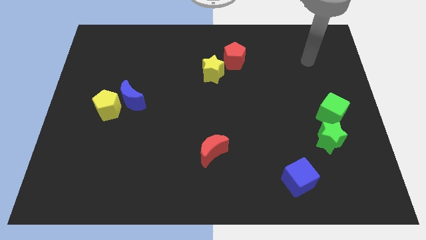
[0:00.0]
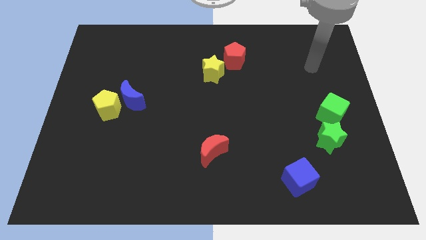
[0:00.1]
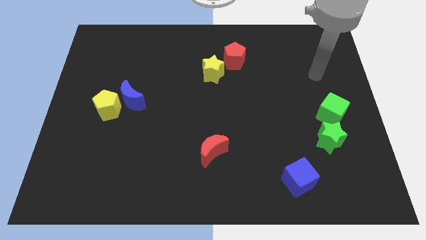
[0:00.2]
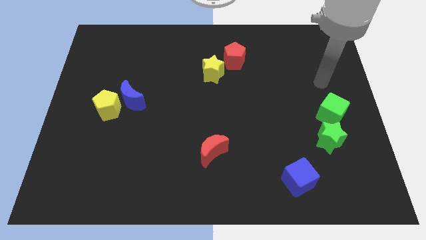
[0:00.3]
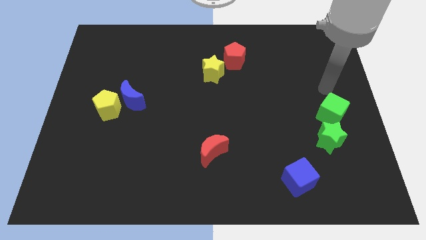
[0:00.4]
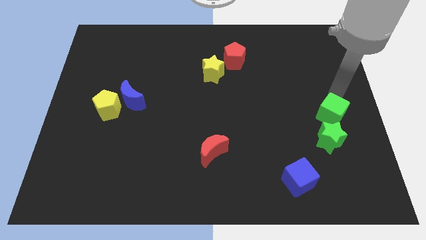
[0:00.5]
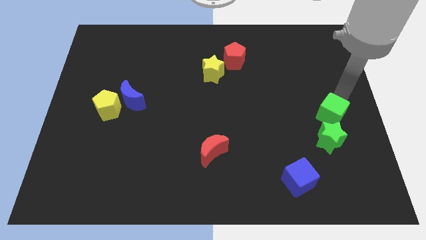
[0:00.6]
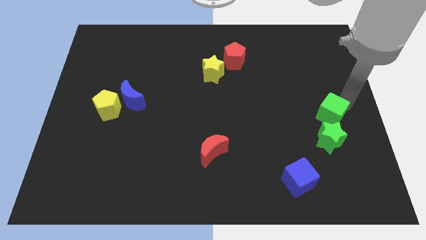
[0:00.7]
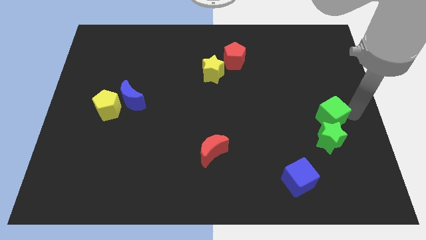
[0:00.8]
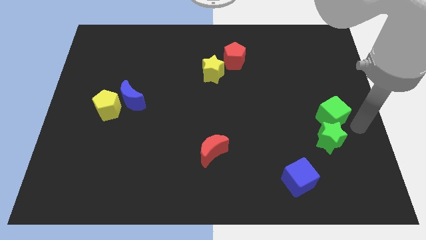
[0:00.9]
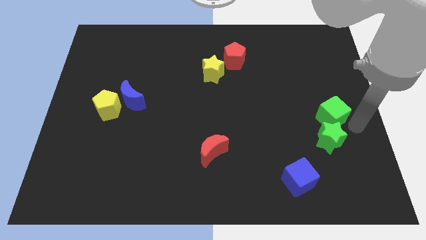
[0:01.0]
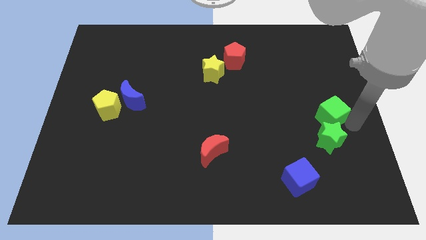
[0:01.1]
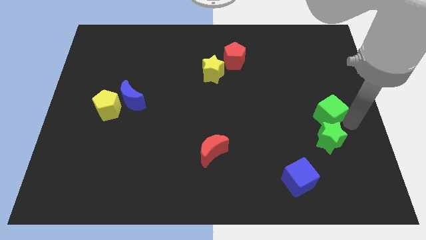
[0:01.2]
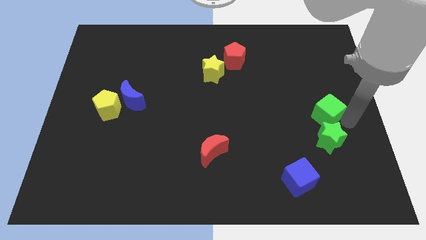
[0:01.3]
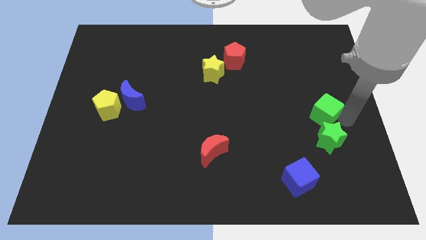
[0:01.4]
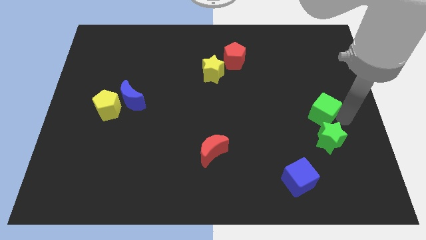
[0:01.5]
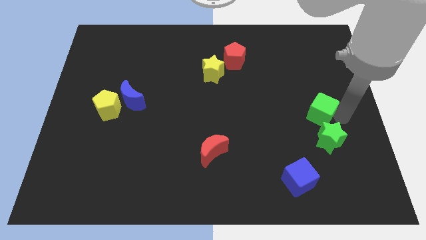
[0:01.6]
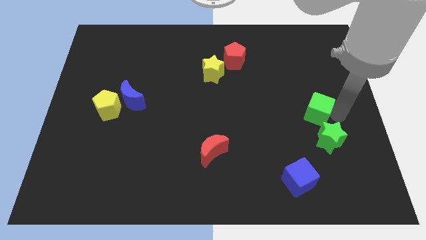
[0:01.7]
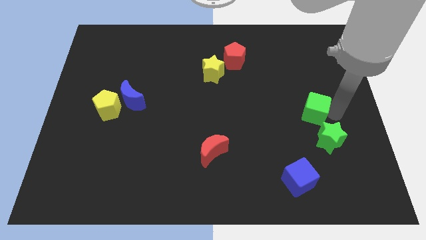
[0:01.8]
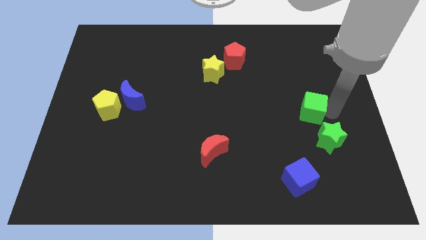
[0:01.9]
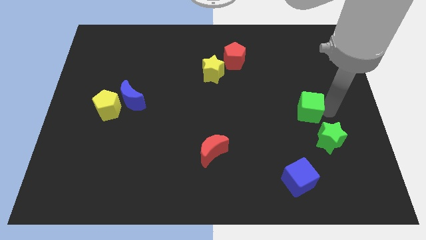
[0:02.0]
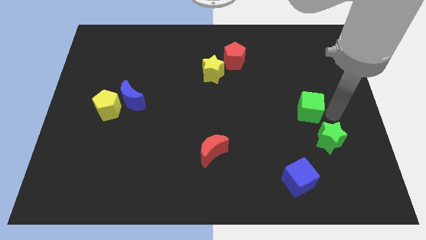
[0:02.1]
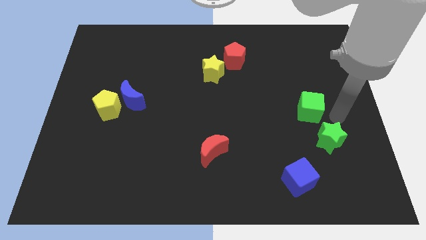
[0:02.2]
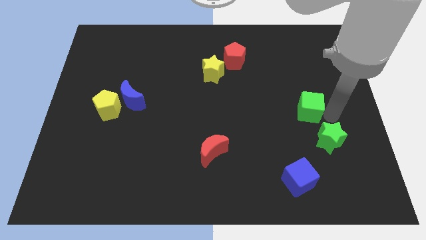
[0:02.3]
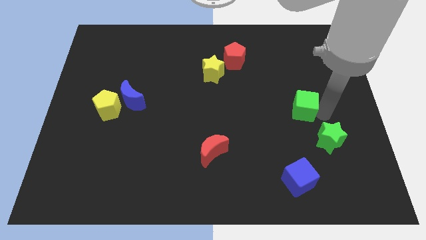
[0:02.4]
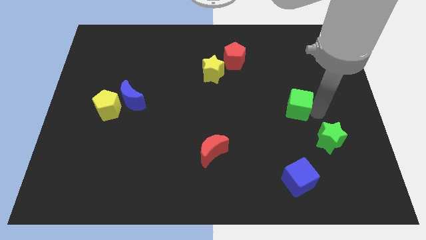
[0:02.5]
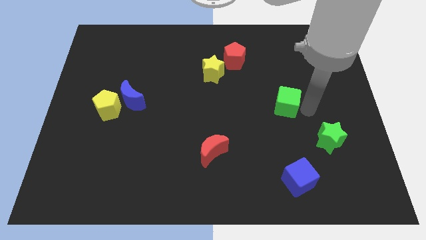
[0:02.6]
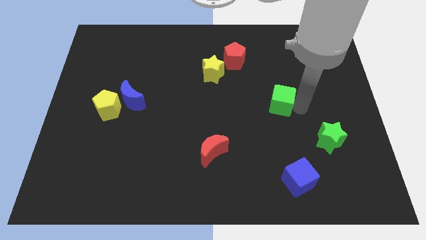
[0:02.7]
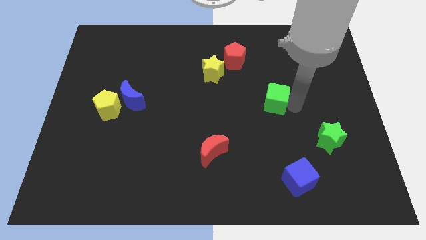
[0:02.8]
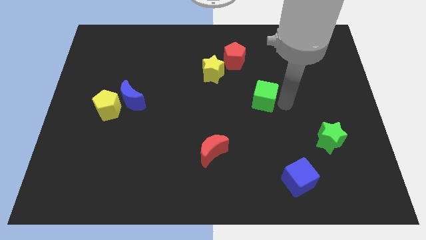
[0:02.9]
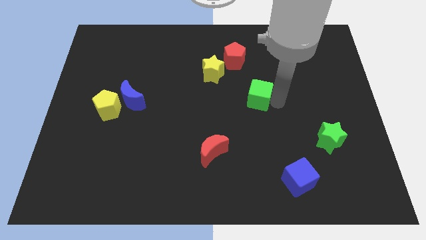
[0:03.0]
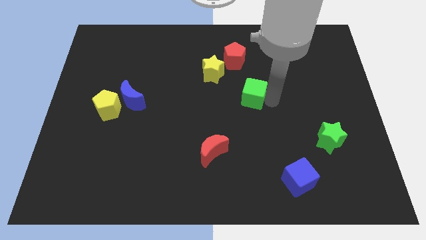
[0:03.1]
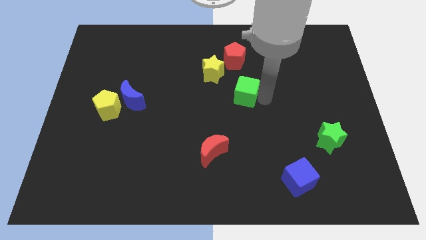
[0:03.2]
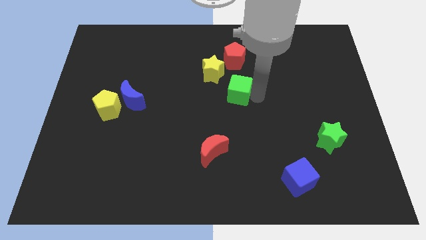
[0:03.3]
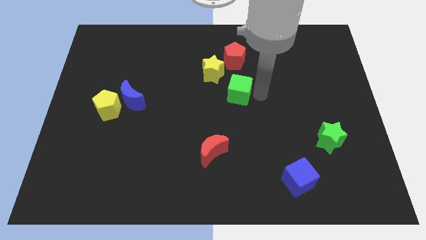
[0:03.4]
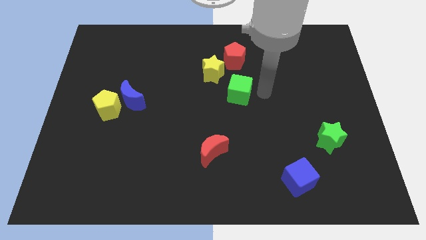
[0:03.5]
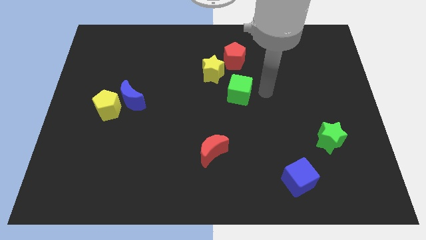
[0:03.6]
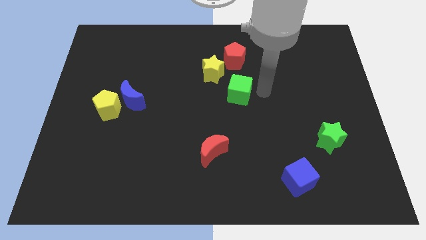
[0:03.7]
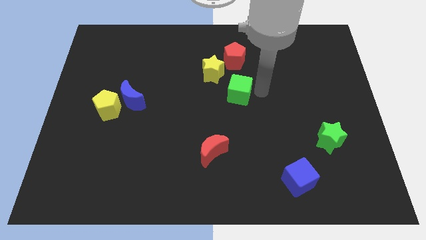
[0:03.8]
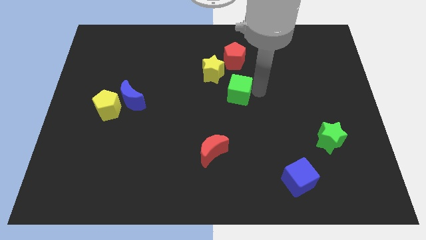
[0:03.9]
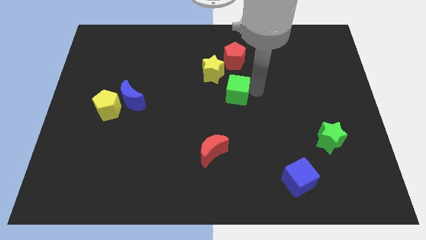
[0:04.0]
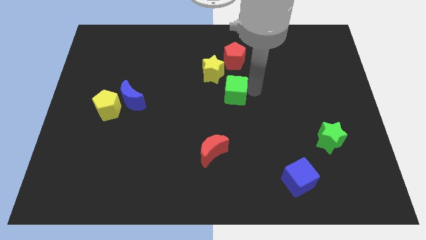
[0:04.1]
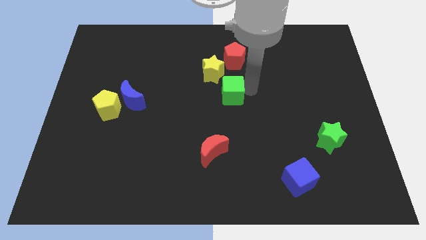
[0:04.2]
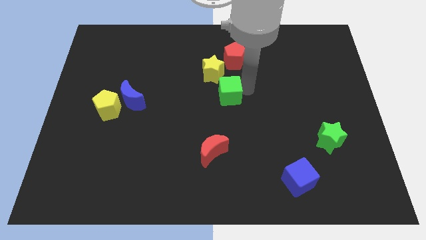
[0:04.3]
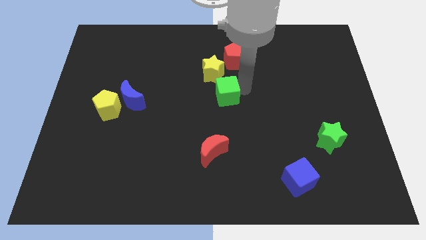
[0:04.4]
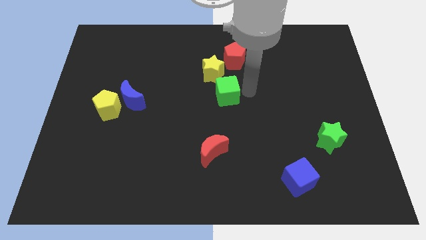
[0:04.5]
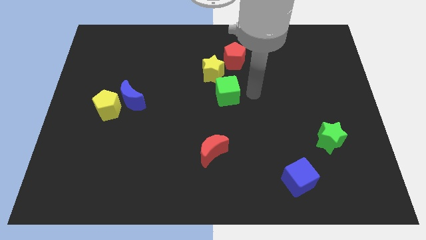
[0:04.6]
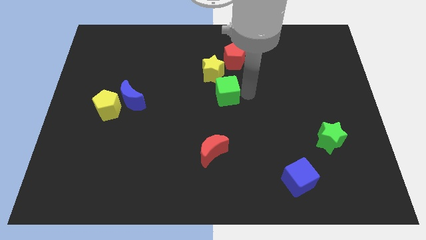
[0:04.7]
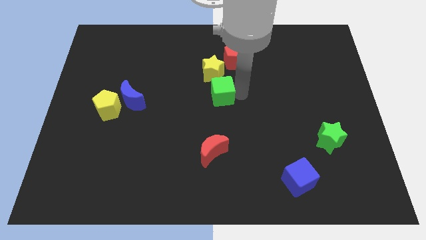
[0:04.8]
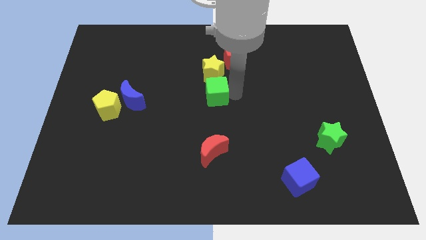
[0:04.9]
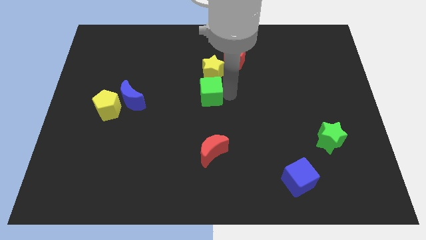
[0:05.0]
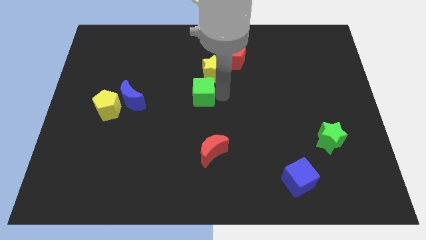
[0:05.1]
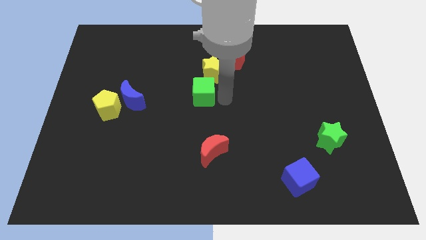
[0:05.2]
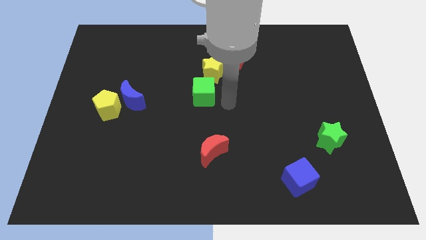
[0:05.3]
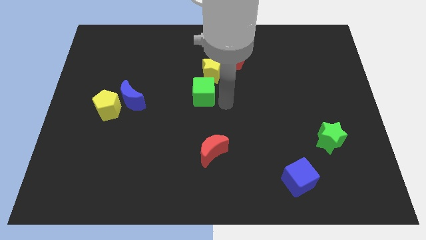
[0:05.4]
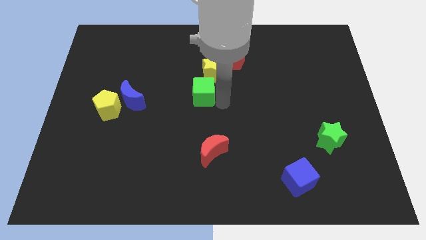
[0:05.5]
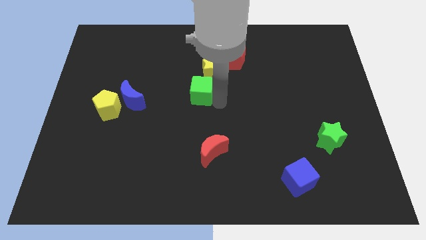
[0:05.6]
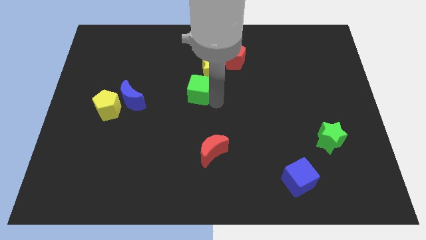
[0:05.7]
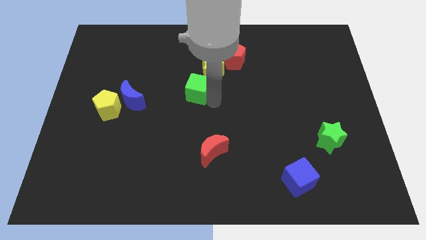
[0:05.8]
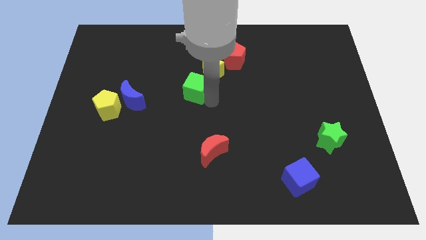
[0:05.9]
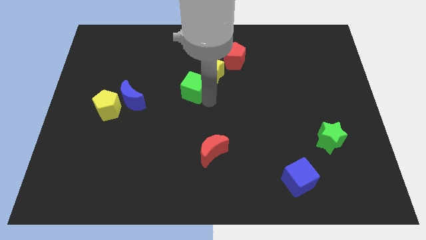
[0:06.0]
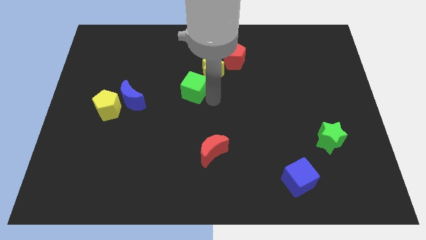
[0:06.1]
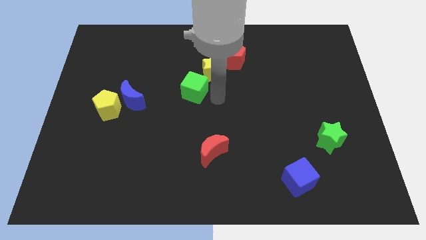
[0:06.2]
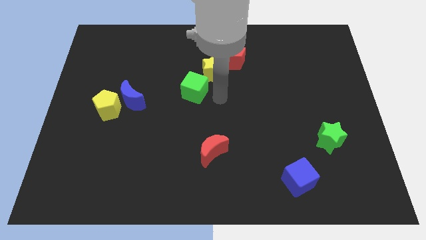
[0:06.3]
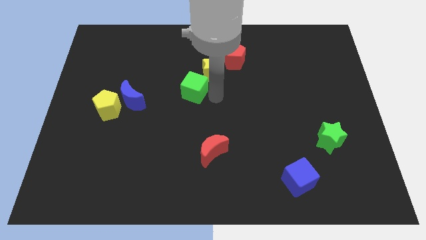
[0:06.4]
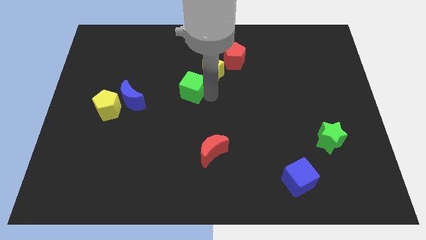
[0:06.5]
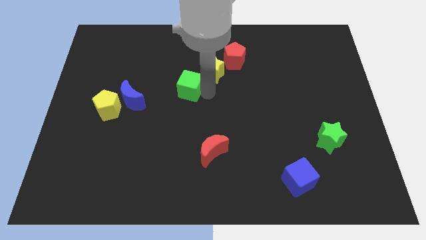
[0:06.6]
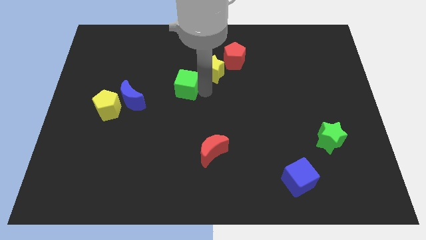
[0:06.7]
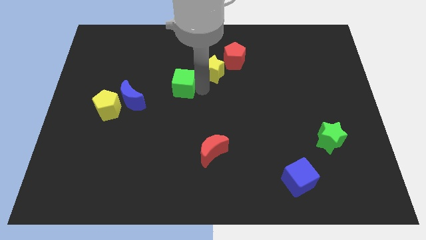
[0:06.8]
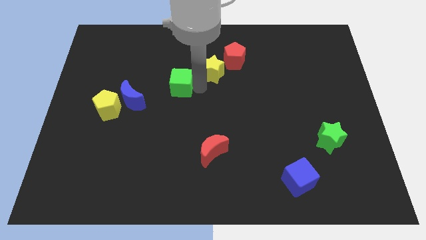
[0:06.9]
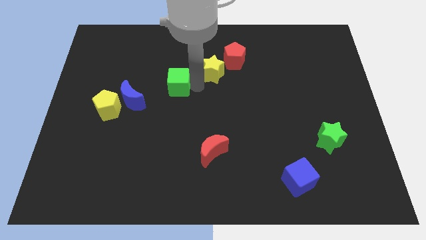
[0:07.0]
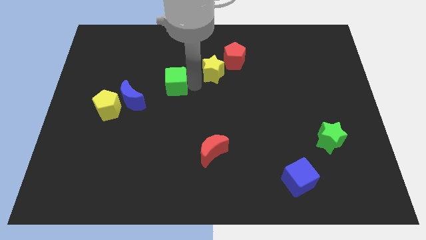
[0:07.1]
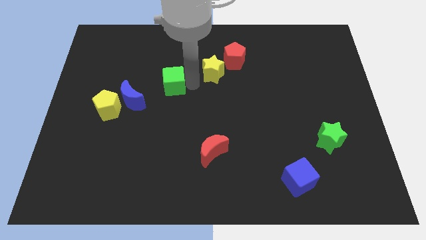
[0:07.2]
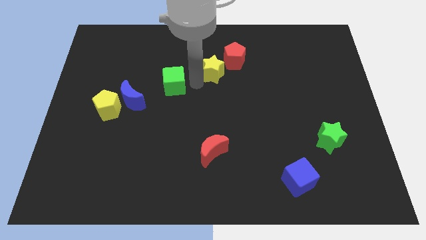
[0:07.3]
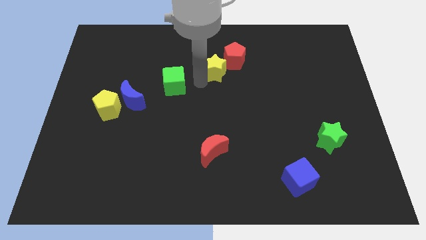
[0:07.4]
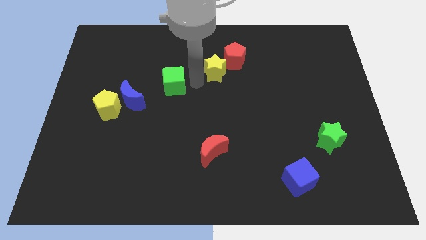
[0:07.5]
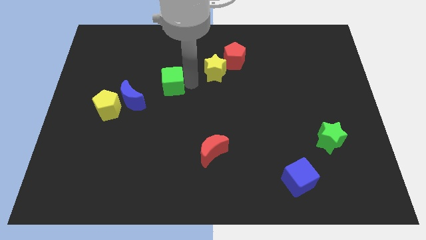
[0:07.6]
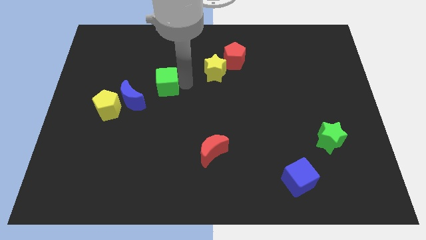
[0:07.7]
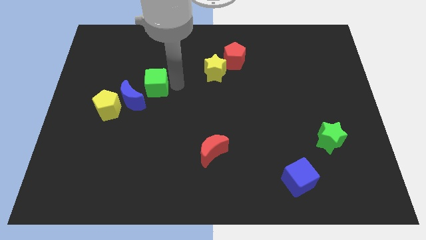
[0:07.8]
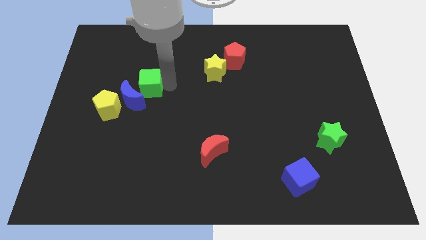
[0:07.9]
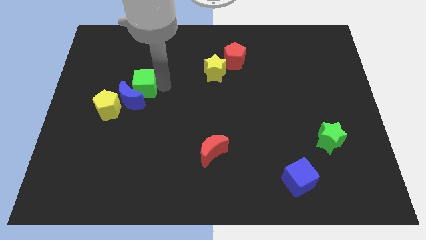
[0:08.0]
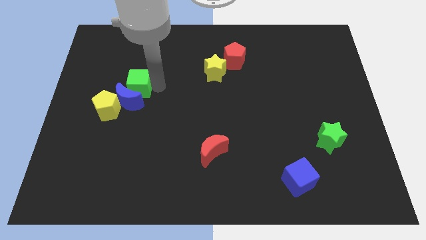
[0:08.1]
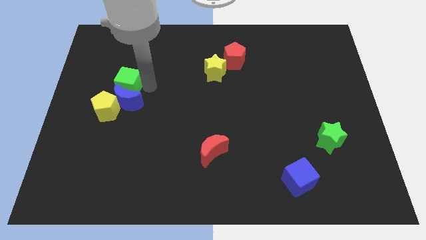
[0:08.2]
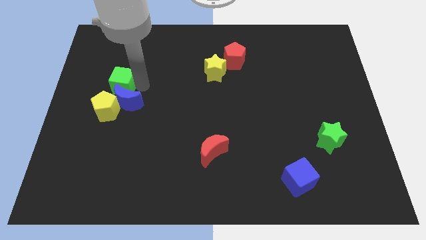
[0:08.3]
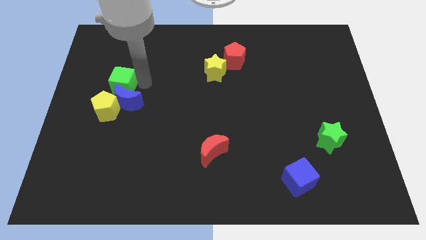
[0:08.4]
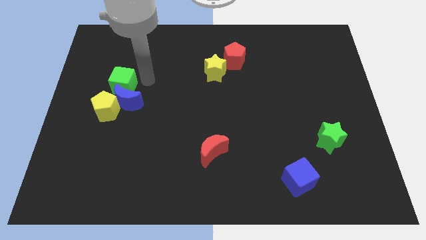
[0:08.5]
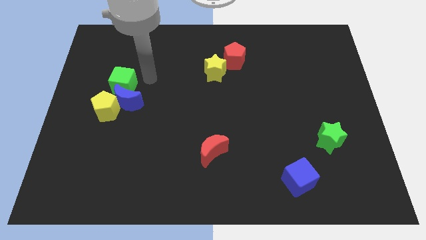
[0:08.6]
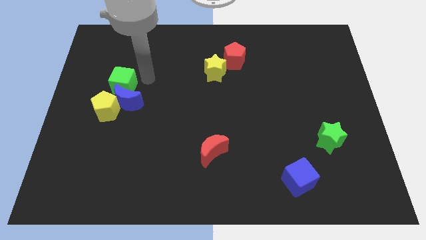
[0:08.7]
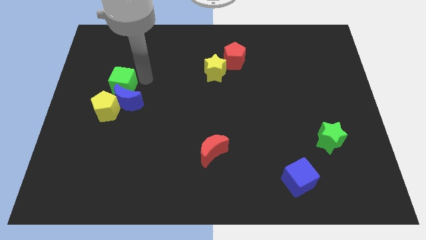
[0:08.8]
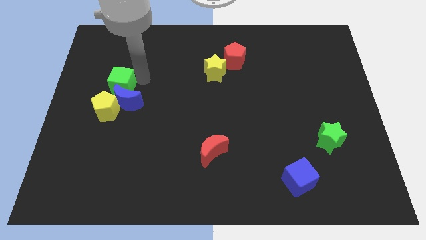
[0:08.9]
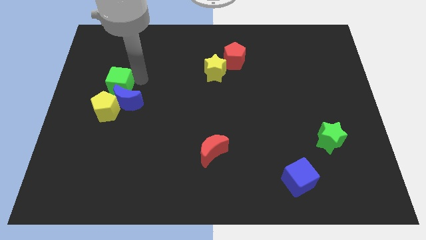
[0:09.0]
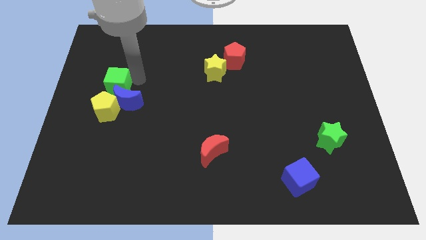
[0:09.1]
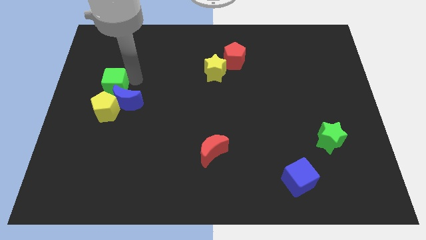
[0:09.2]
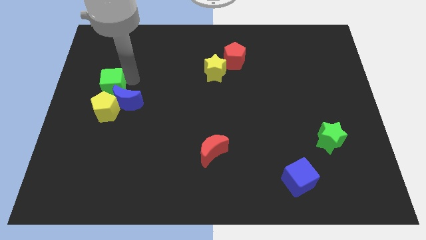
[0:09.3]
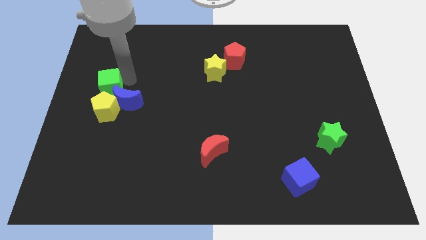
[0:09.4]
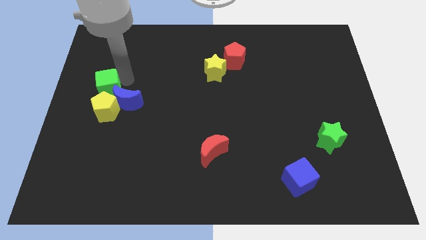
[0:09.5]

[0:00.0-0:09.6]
move the green cube to the left side
